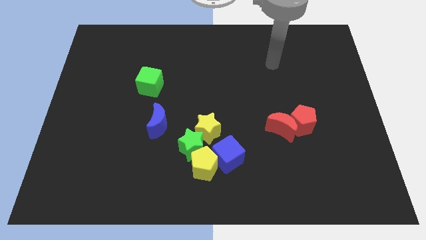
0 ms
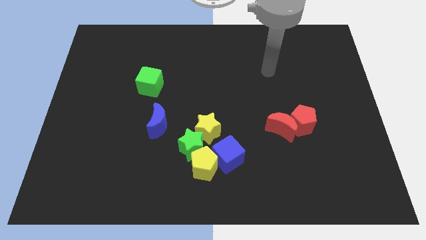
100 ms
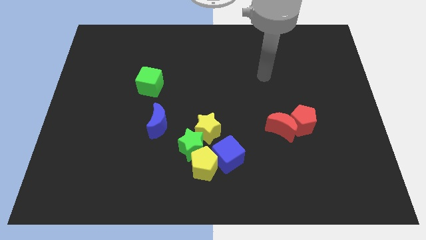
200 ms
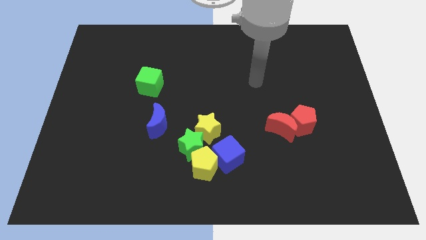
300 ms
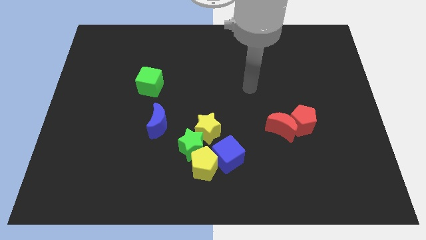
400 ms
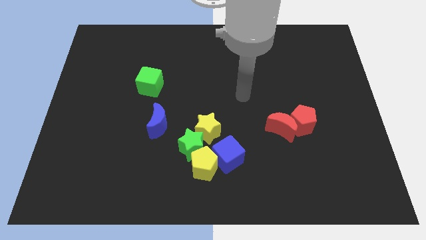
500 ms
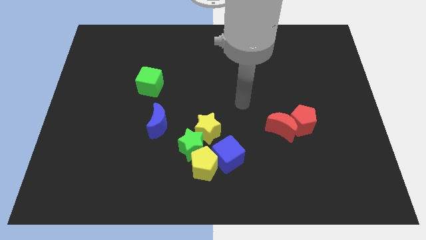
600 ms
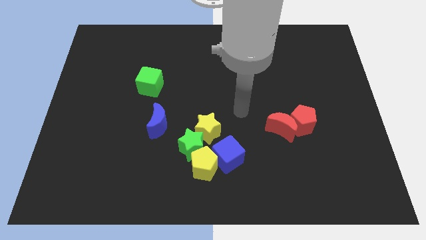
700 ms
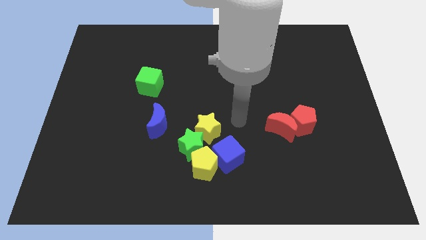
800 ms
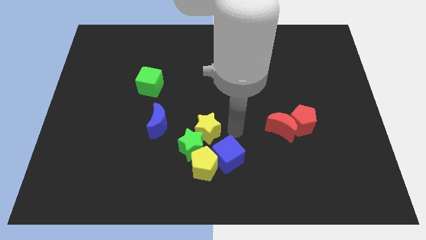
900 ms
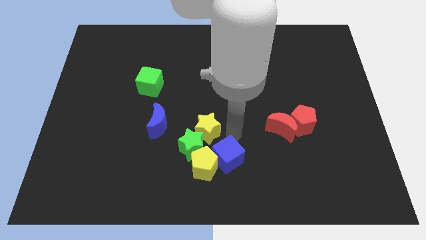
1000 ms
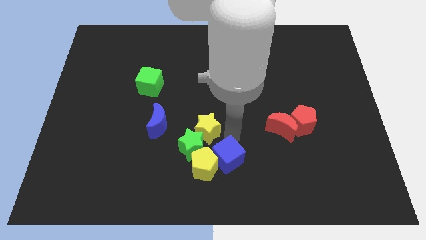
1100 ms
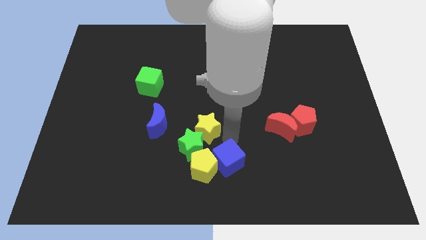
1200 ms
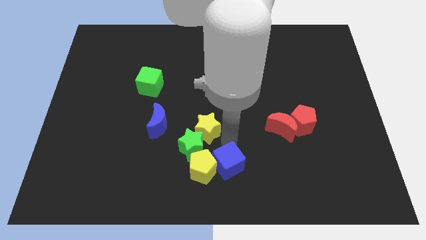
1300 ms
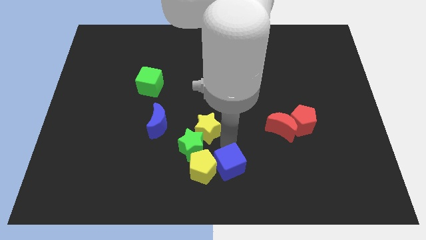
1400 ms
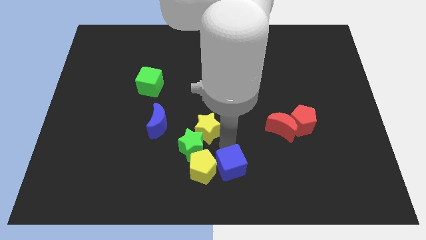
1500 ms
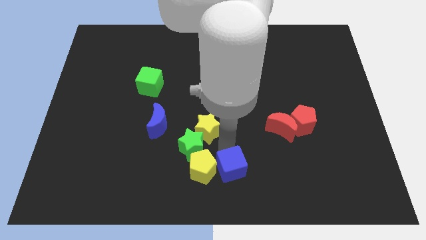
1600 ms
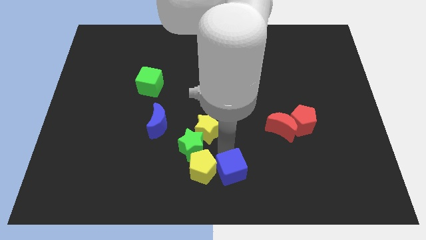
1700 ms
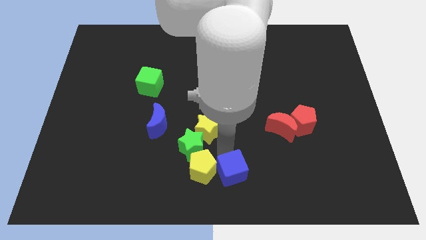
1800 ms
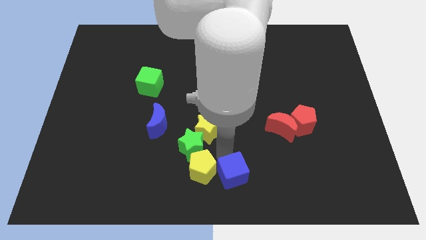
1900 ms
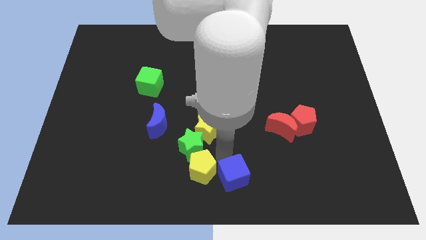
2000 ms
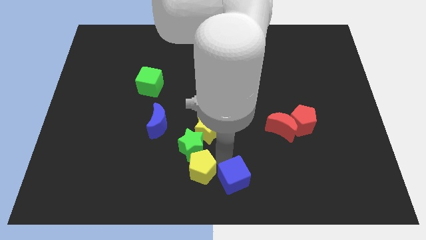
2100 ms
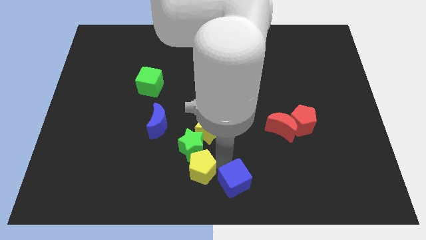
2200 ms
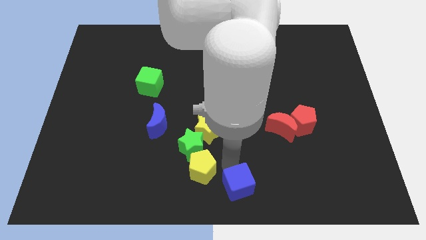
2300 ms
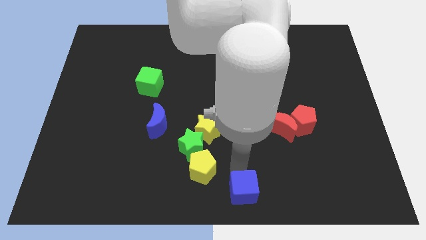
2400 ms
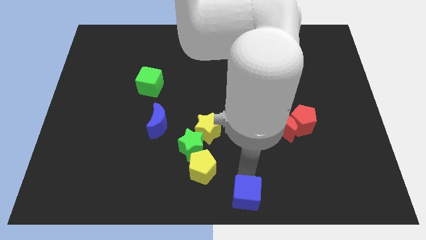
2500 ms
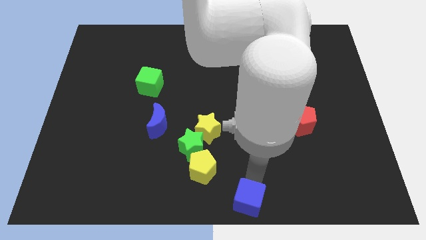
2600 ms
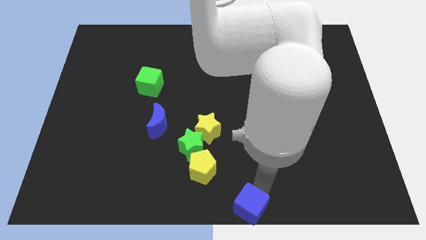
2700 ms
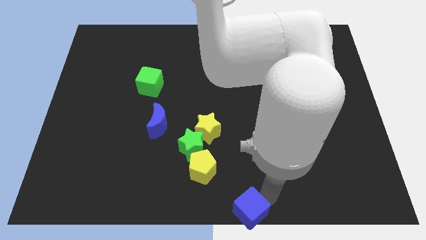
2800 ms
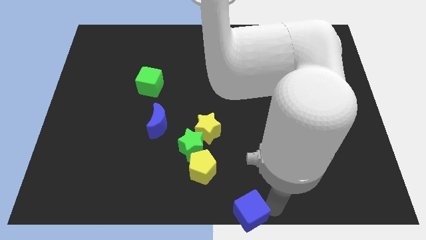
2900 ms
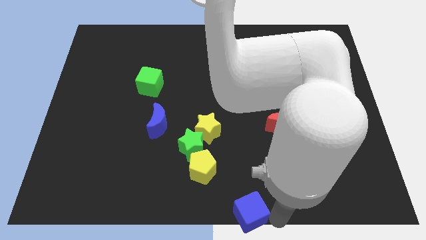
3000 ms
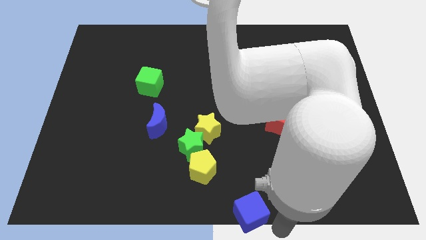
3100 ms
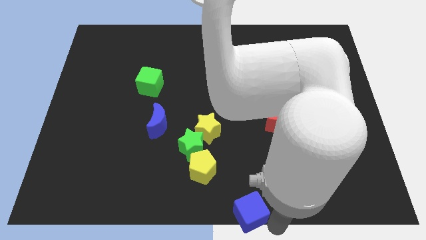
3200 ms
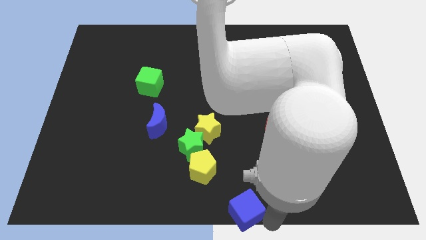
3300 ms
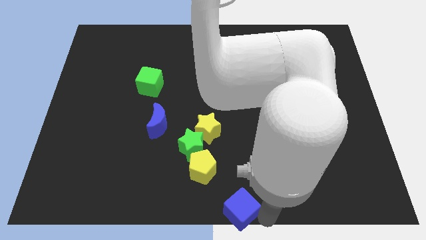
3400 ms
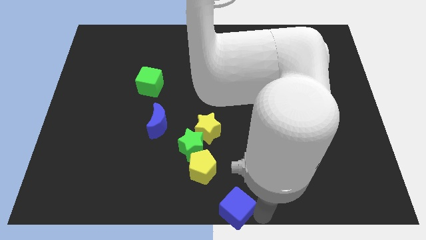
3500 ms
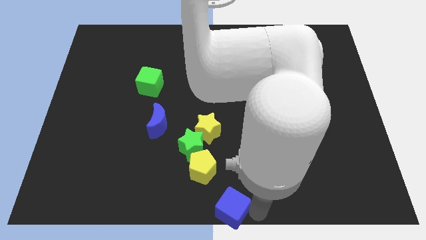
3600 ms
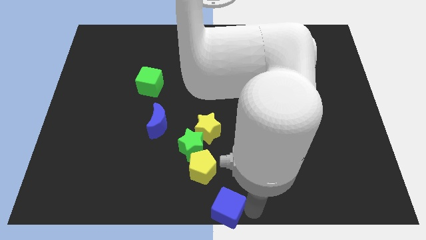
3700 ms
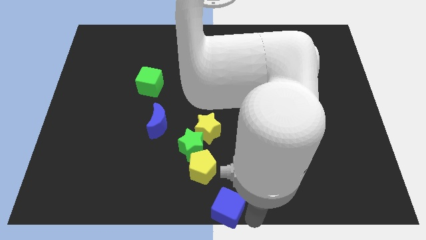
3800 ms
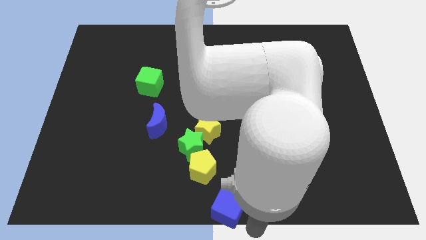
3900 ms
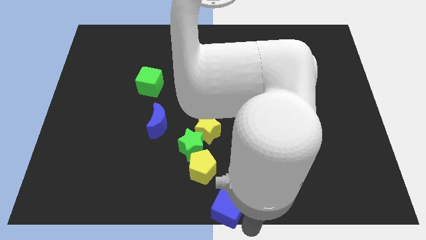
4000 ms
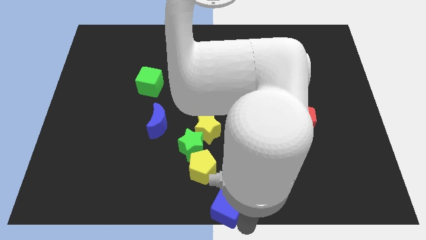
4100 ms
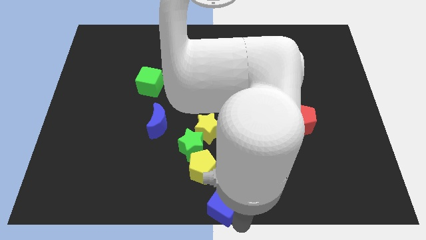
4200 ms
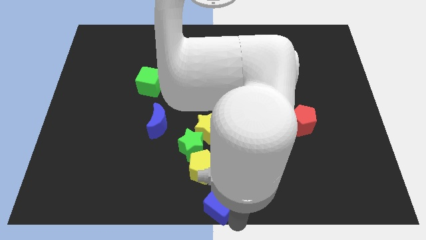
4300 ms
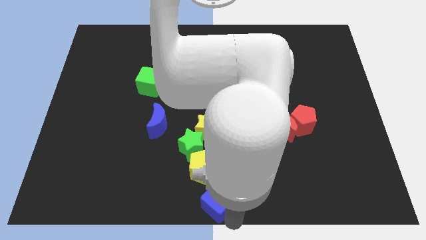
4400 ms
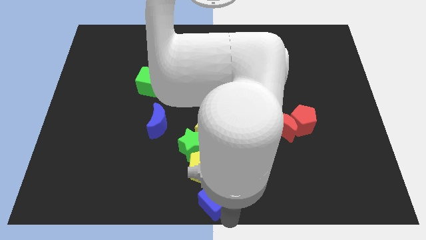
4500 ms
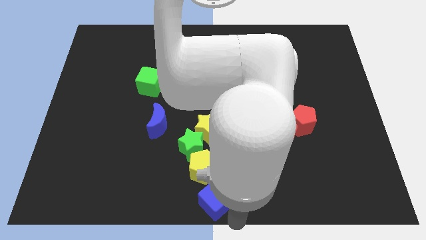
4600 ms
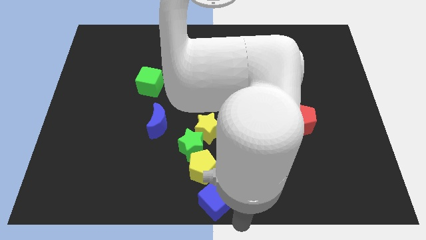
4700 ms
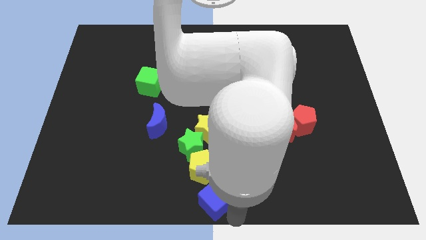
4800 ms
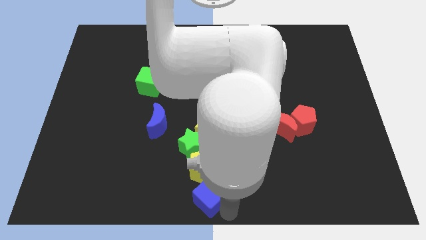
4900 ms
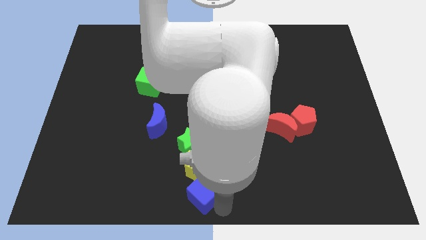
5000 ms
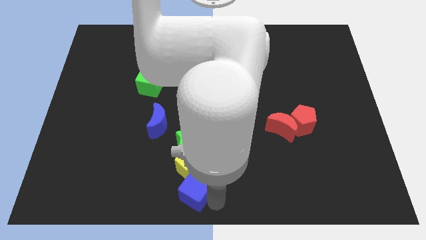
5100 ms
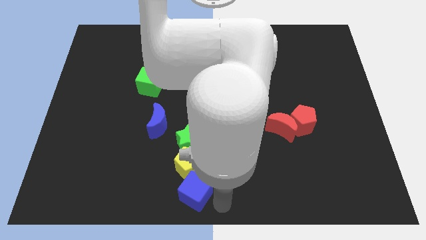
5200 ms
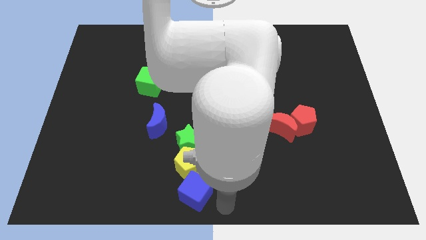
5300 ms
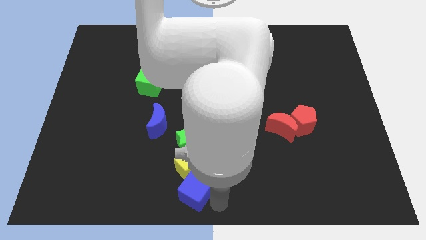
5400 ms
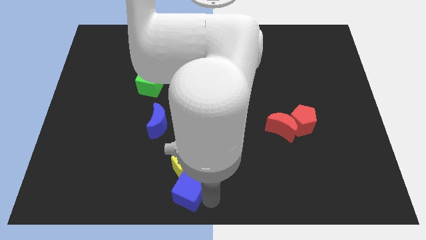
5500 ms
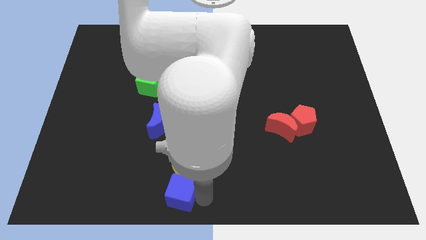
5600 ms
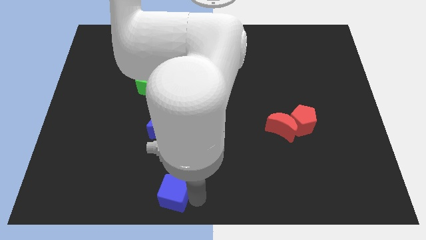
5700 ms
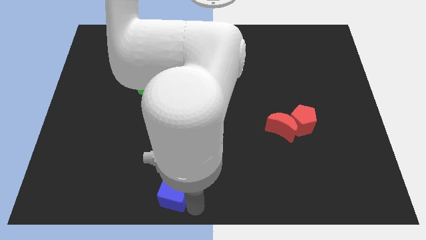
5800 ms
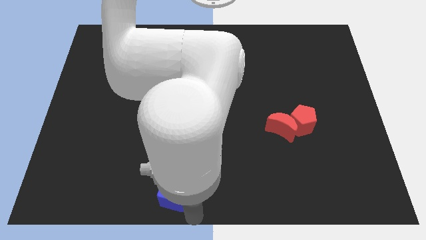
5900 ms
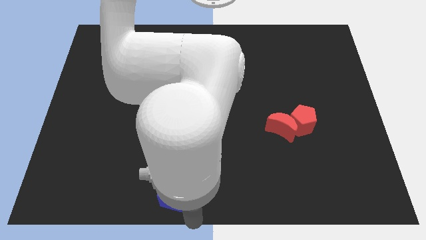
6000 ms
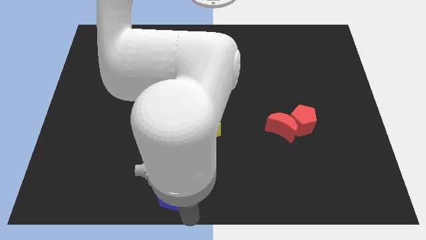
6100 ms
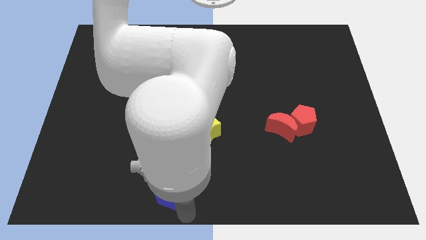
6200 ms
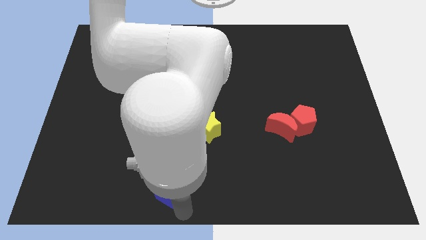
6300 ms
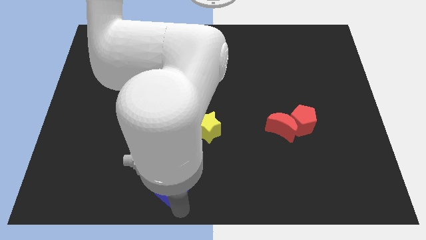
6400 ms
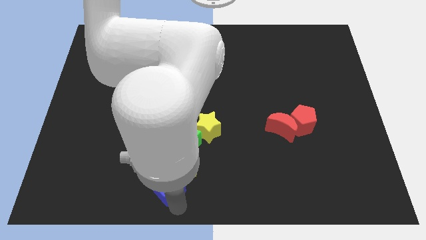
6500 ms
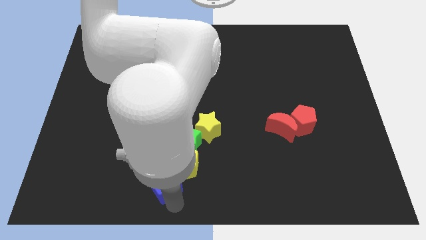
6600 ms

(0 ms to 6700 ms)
push the blue cube below the blue moon
